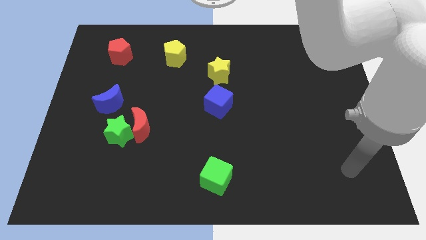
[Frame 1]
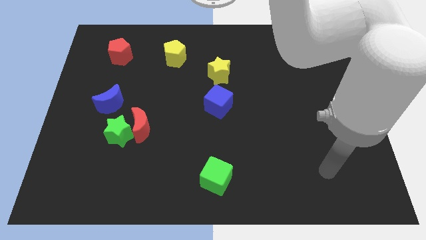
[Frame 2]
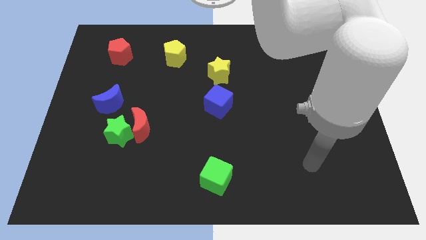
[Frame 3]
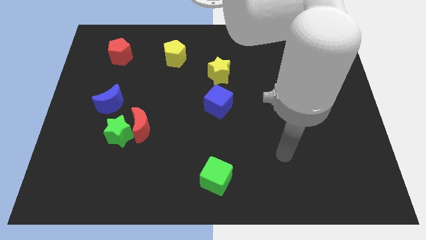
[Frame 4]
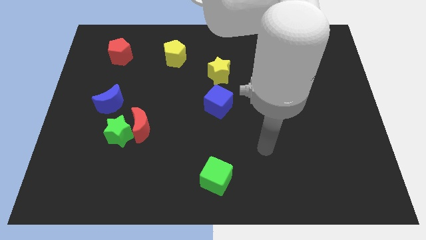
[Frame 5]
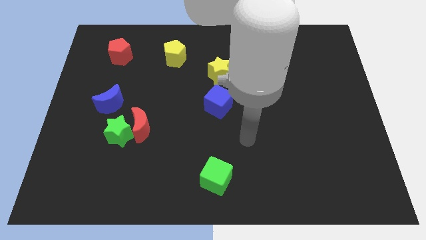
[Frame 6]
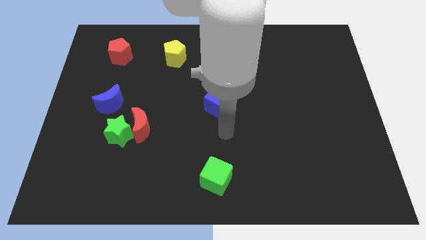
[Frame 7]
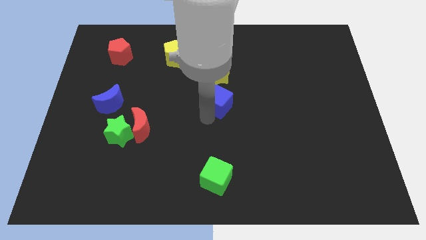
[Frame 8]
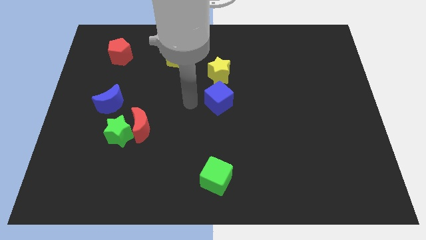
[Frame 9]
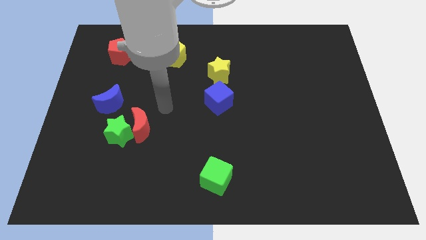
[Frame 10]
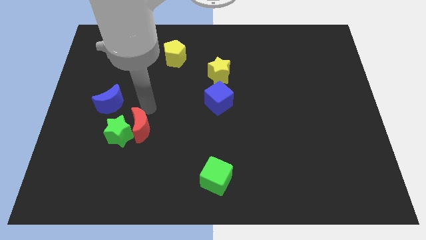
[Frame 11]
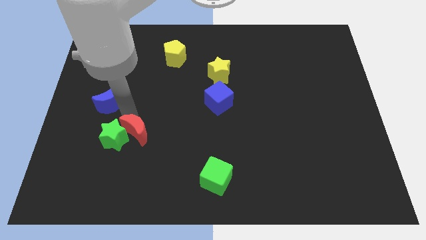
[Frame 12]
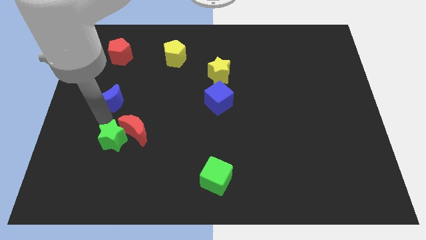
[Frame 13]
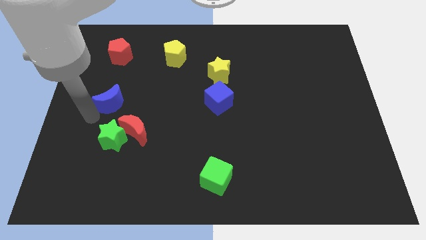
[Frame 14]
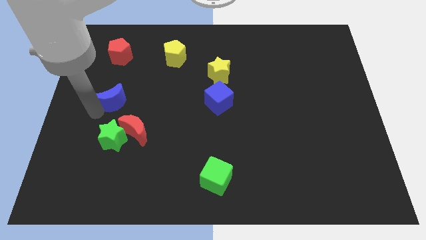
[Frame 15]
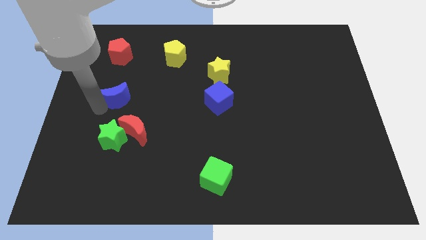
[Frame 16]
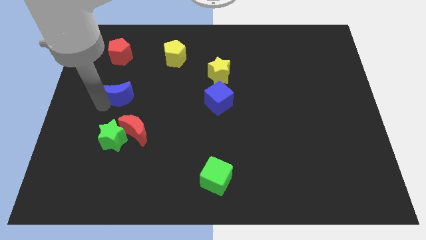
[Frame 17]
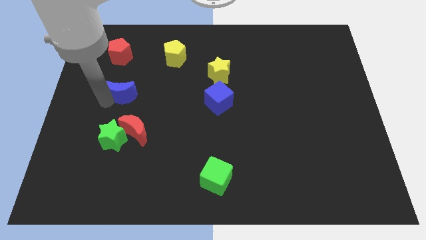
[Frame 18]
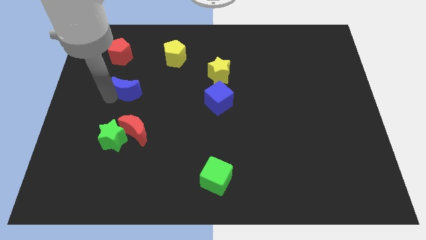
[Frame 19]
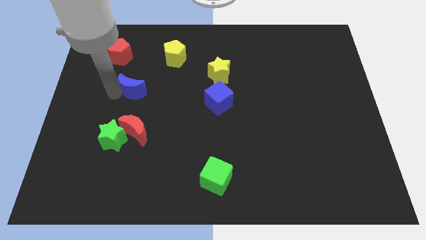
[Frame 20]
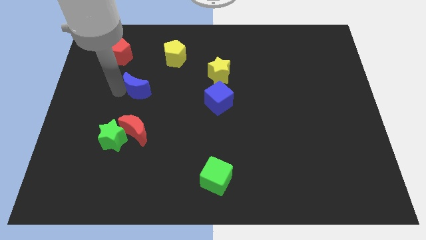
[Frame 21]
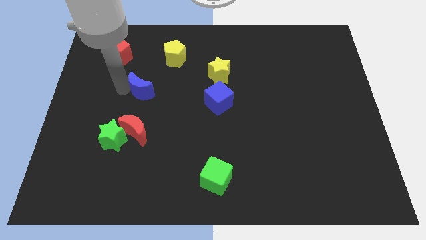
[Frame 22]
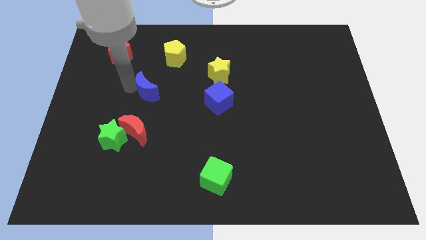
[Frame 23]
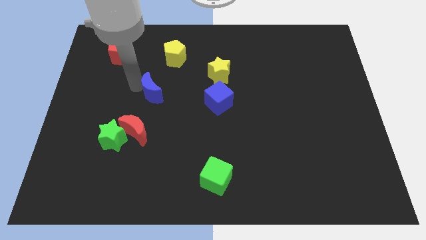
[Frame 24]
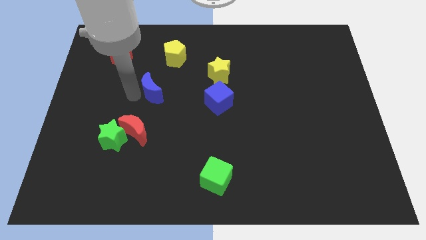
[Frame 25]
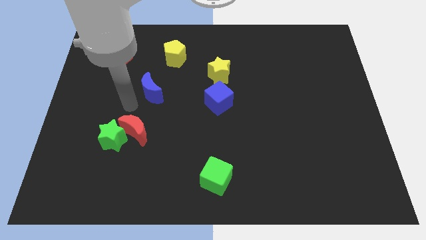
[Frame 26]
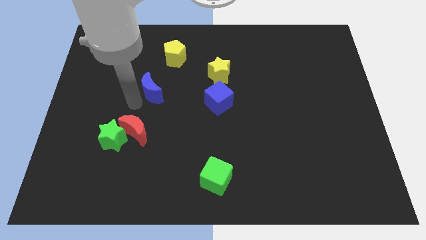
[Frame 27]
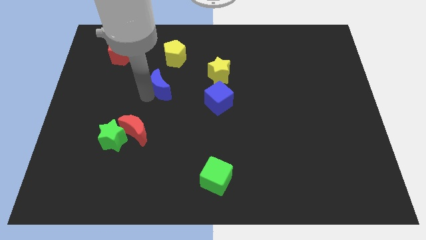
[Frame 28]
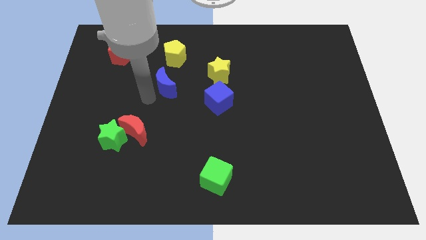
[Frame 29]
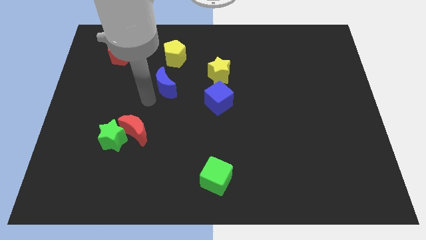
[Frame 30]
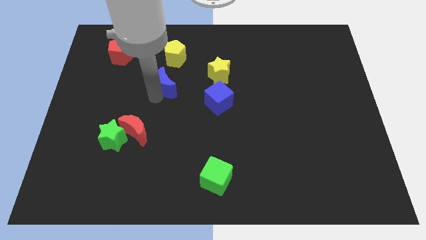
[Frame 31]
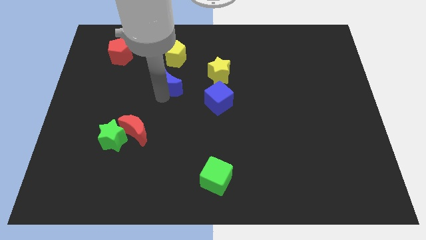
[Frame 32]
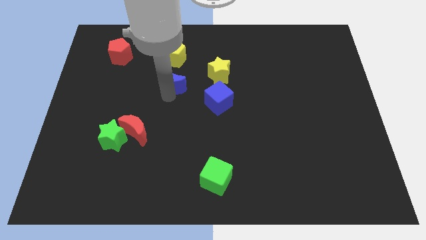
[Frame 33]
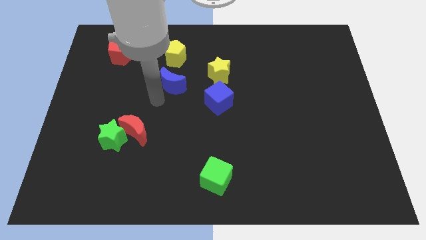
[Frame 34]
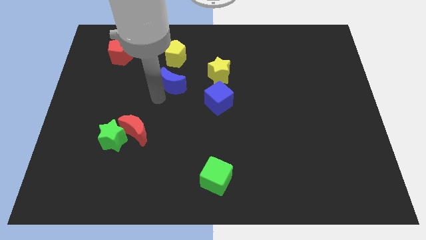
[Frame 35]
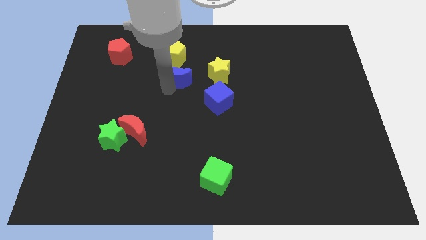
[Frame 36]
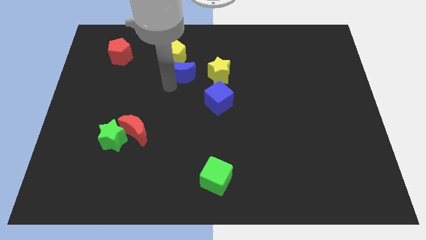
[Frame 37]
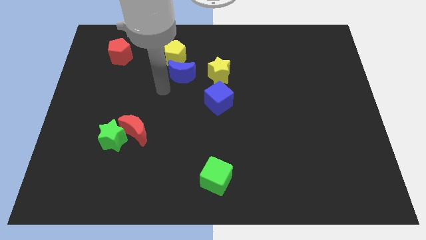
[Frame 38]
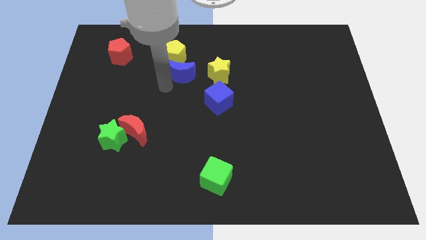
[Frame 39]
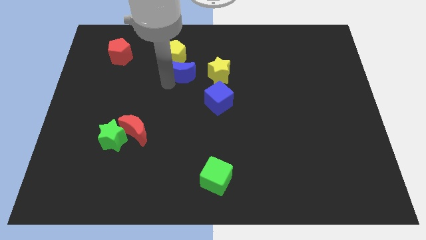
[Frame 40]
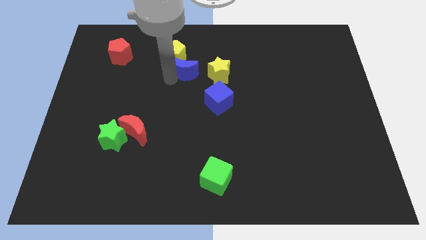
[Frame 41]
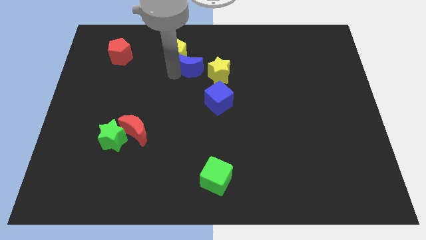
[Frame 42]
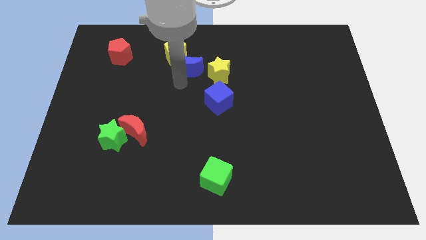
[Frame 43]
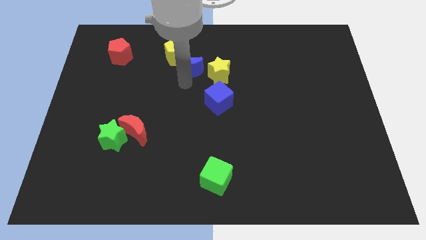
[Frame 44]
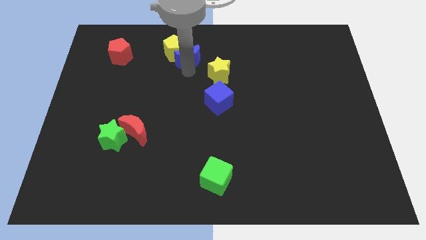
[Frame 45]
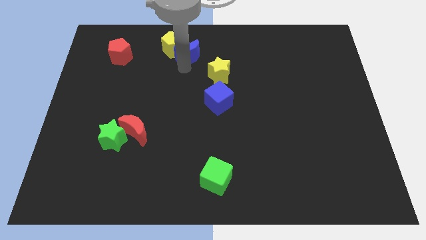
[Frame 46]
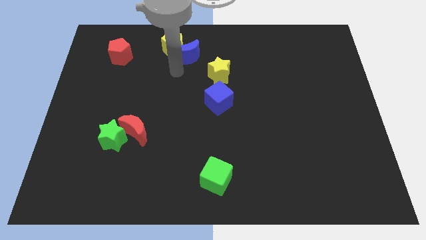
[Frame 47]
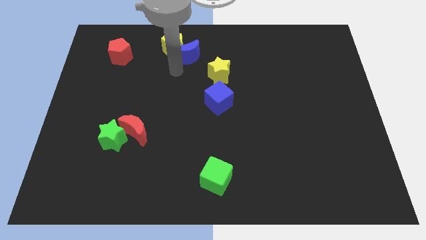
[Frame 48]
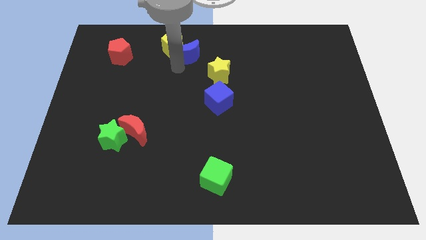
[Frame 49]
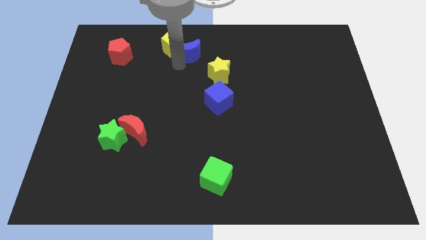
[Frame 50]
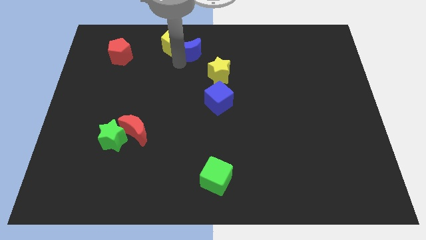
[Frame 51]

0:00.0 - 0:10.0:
put the blue moon to the top

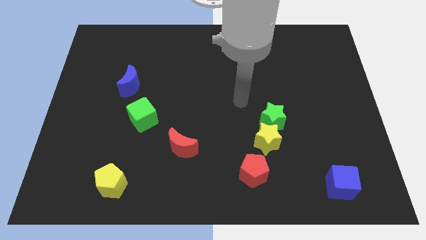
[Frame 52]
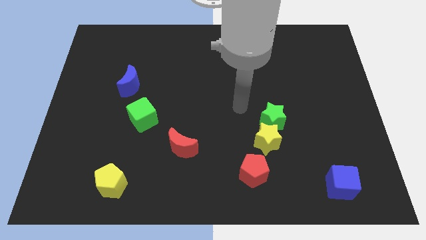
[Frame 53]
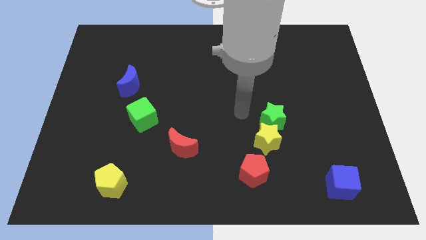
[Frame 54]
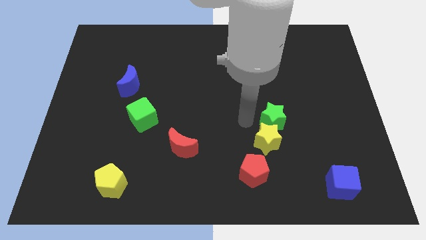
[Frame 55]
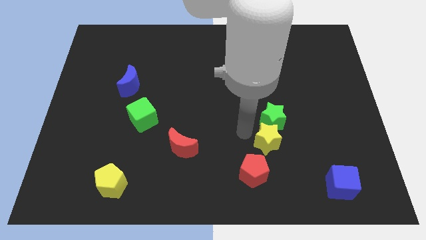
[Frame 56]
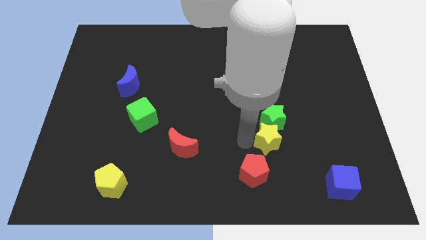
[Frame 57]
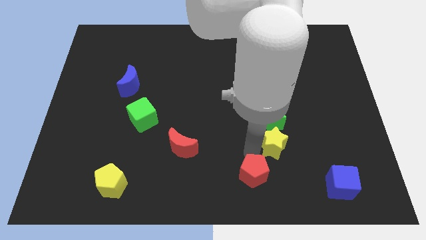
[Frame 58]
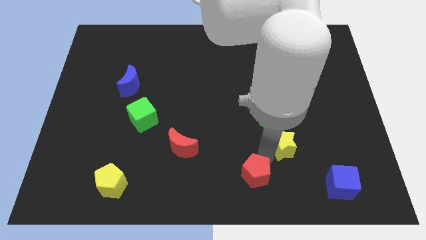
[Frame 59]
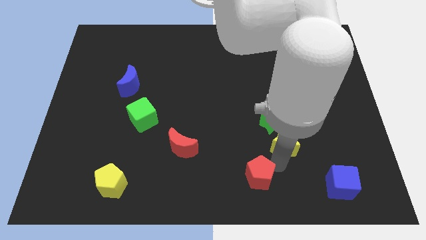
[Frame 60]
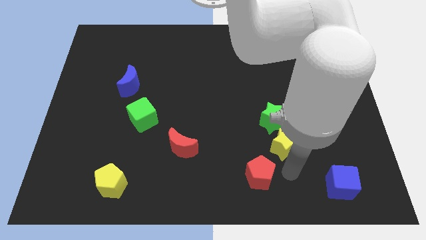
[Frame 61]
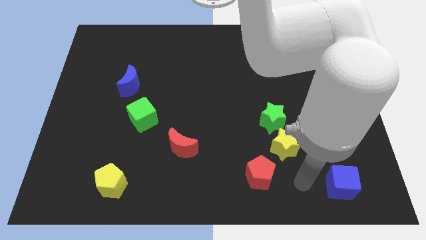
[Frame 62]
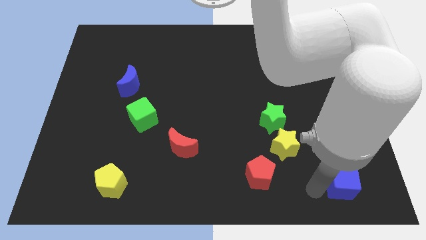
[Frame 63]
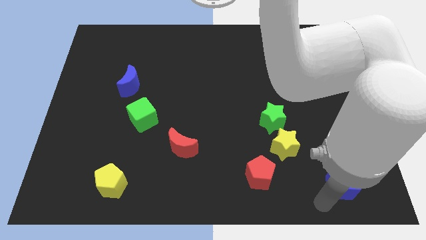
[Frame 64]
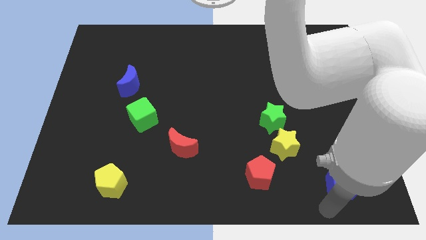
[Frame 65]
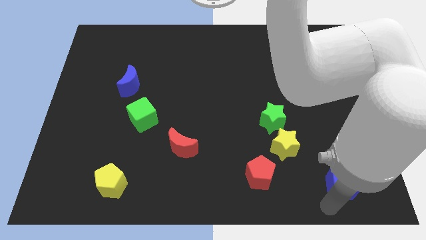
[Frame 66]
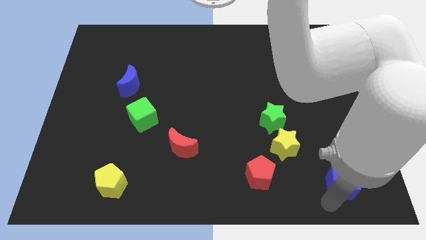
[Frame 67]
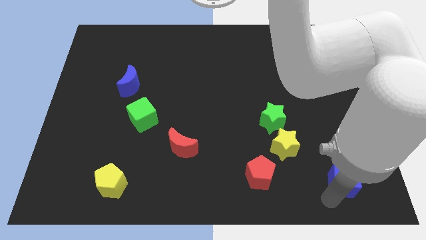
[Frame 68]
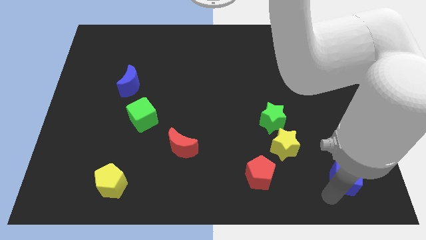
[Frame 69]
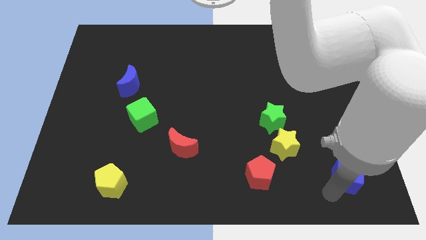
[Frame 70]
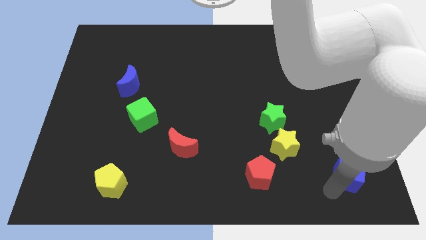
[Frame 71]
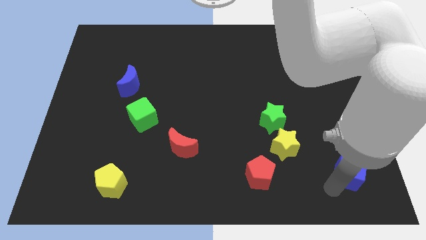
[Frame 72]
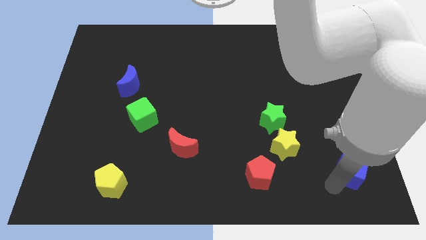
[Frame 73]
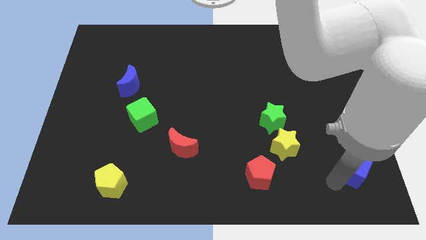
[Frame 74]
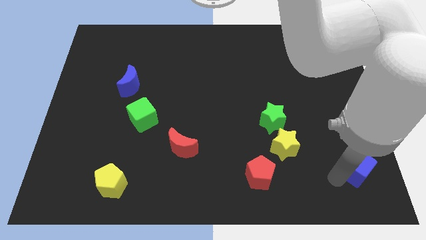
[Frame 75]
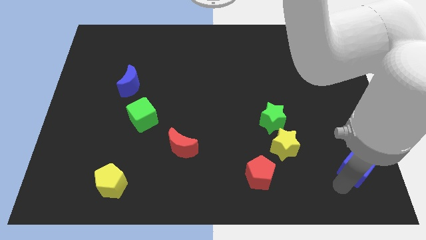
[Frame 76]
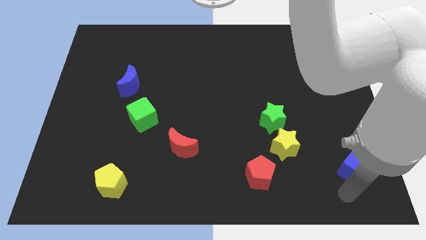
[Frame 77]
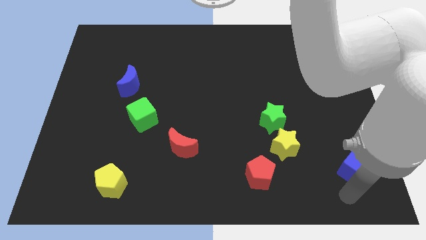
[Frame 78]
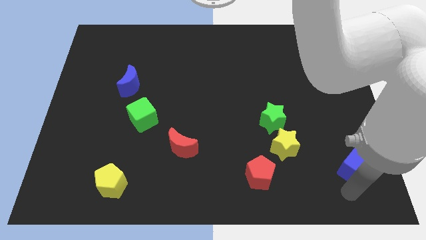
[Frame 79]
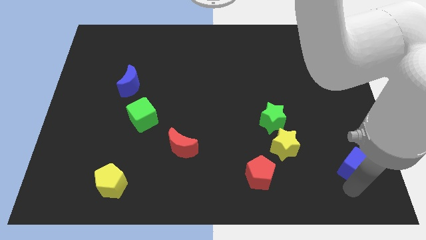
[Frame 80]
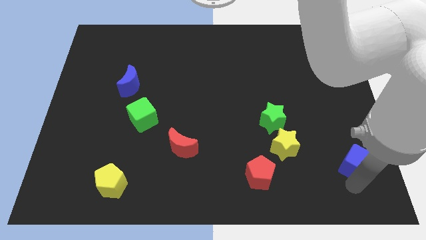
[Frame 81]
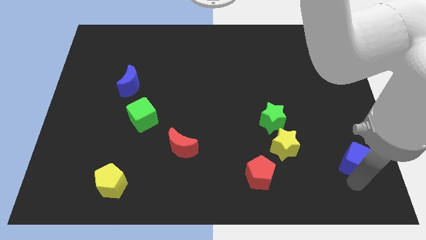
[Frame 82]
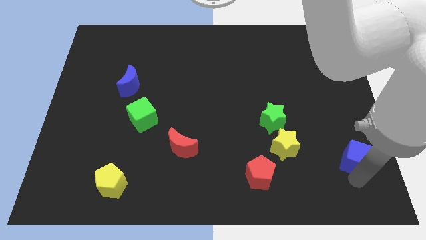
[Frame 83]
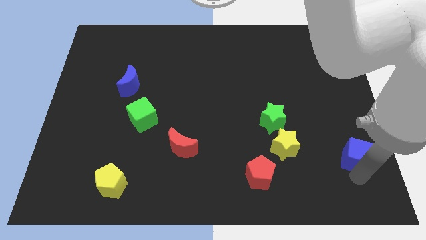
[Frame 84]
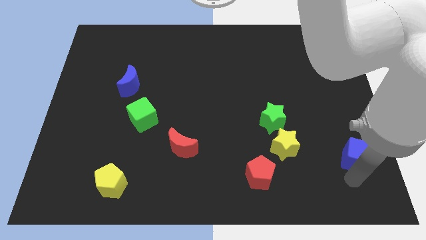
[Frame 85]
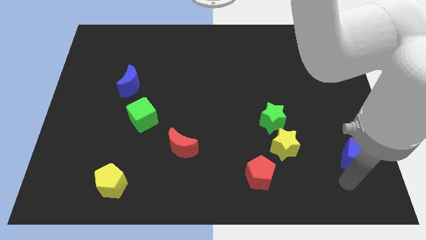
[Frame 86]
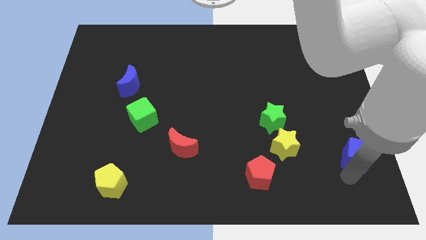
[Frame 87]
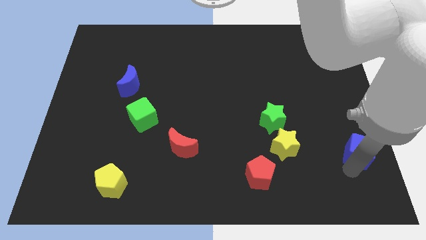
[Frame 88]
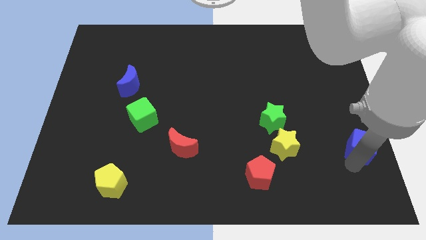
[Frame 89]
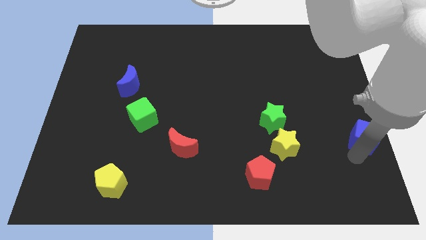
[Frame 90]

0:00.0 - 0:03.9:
put the blue cube to the right side
